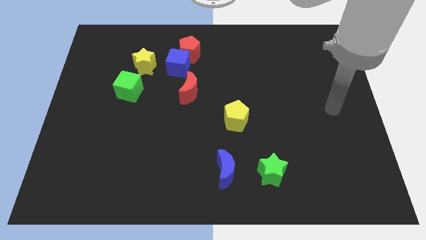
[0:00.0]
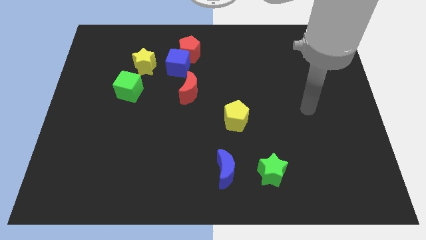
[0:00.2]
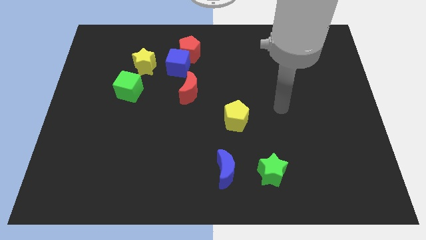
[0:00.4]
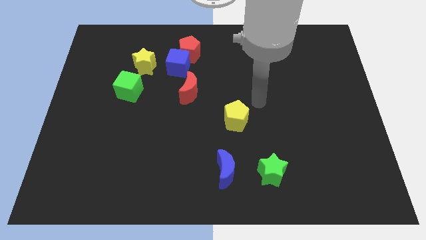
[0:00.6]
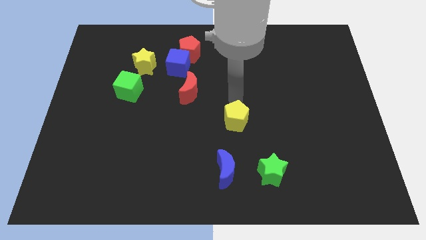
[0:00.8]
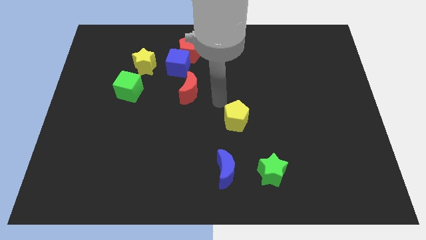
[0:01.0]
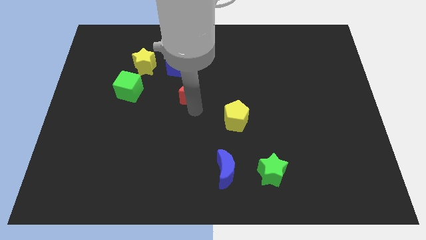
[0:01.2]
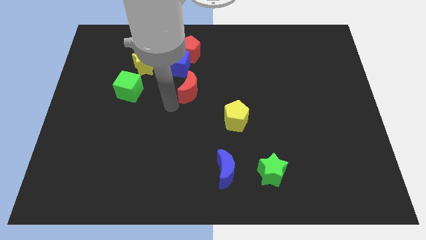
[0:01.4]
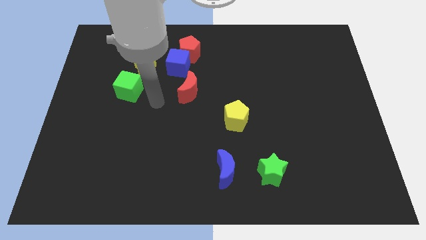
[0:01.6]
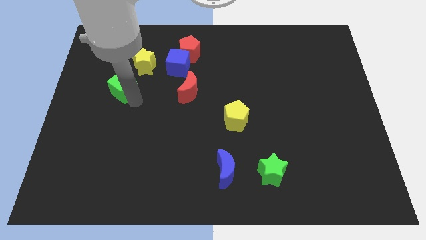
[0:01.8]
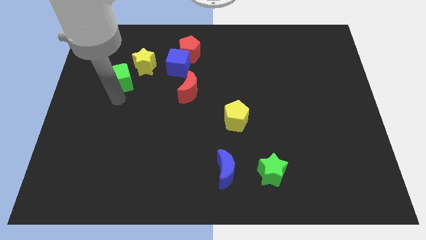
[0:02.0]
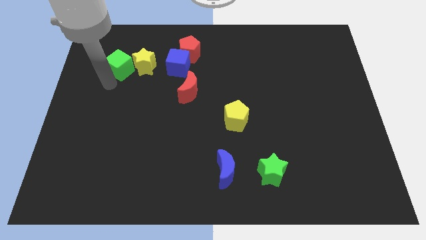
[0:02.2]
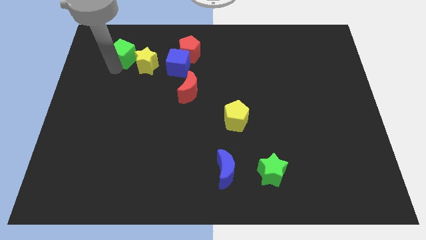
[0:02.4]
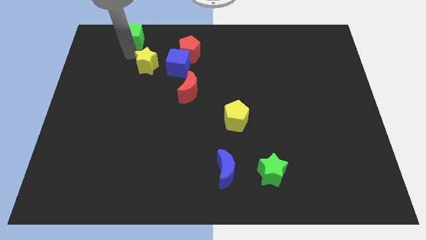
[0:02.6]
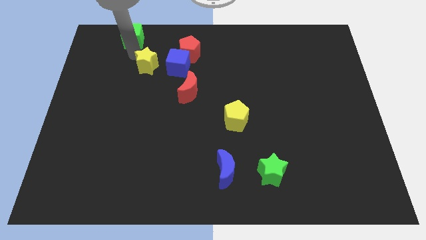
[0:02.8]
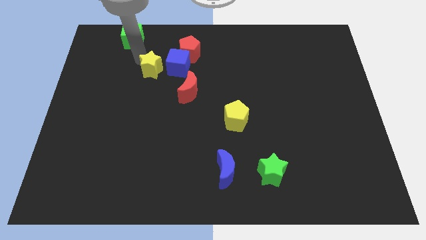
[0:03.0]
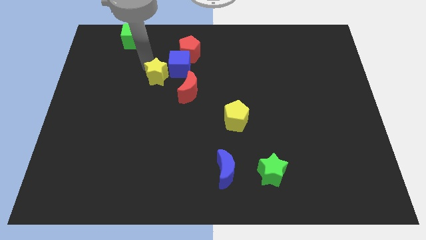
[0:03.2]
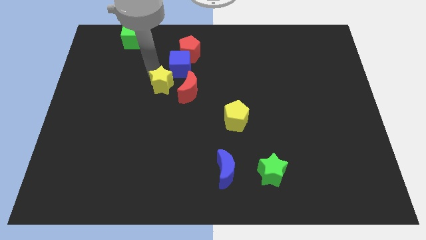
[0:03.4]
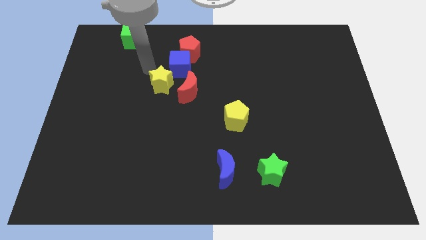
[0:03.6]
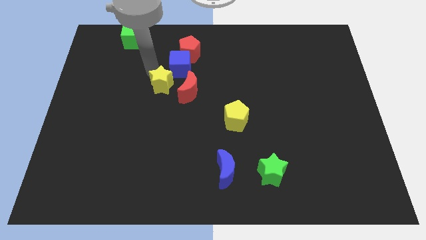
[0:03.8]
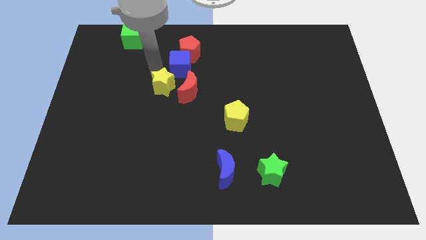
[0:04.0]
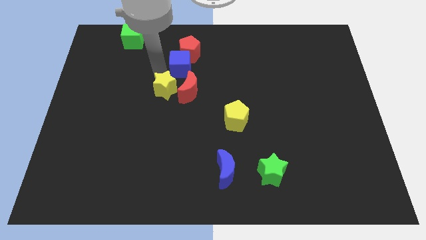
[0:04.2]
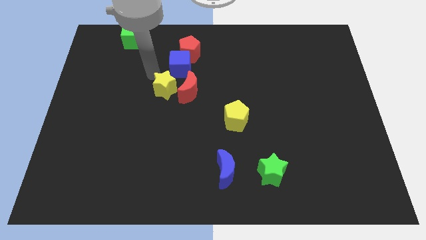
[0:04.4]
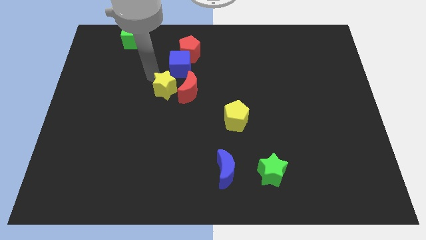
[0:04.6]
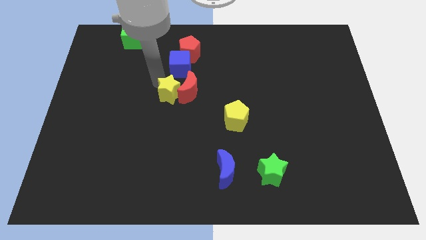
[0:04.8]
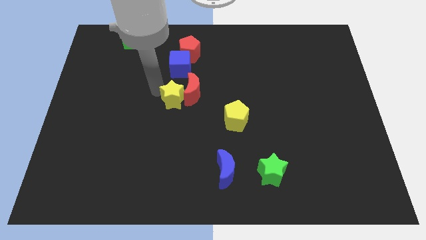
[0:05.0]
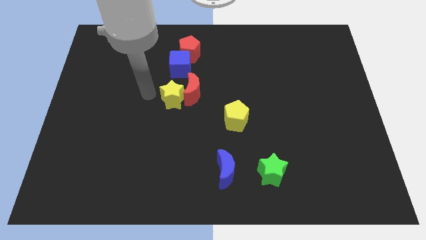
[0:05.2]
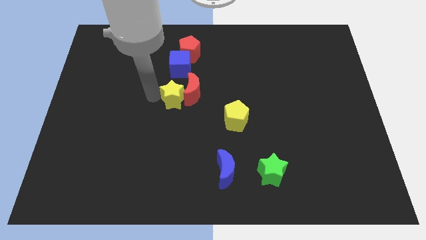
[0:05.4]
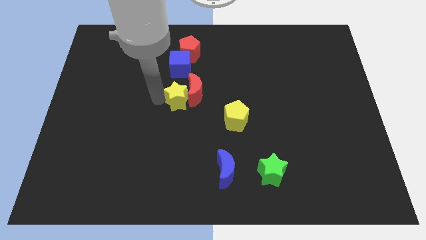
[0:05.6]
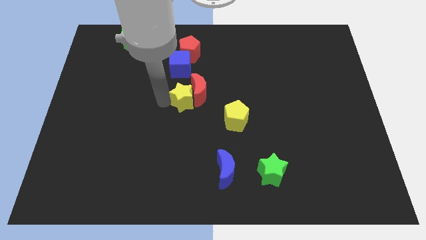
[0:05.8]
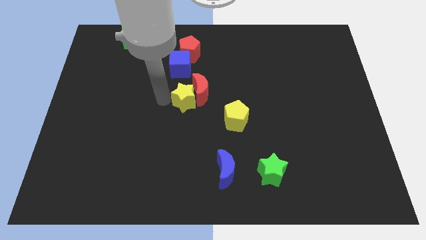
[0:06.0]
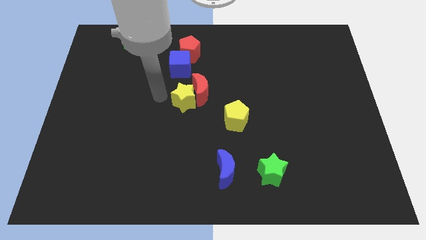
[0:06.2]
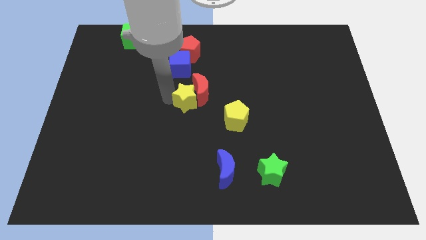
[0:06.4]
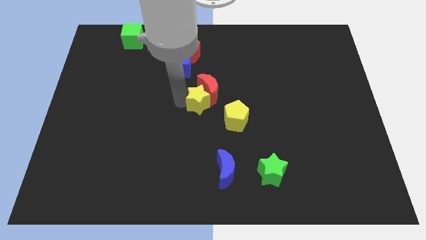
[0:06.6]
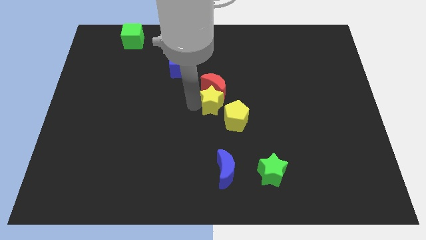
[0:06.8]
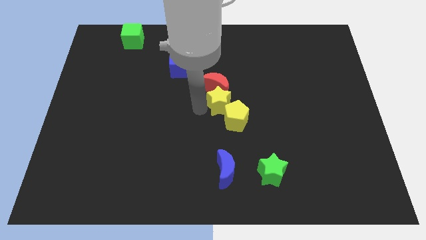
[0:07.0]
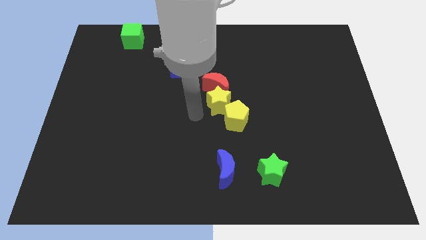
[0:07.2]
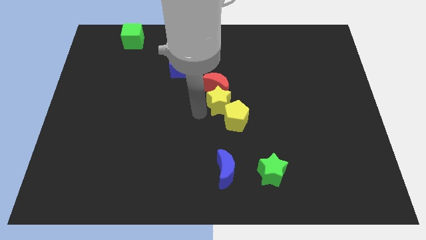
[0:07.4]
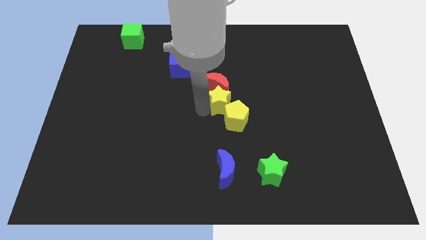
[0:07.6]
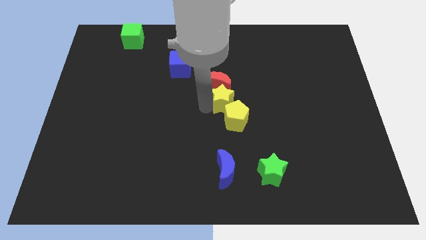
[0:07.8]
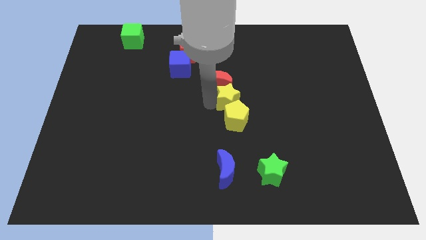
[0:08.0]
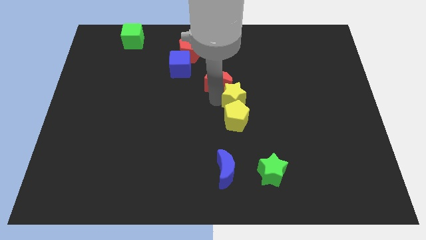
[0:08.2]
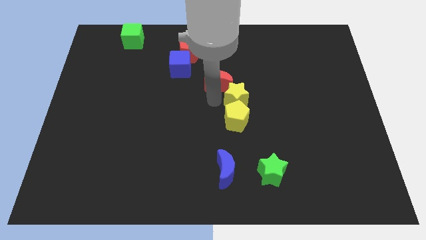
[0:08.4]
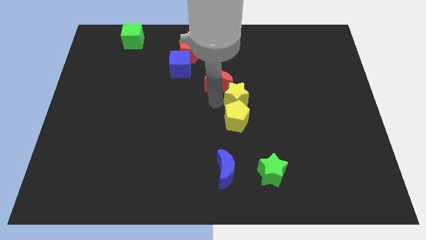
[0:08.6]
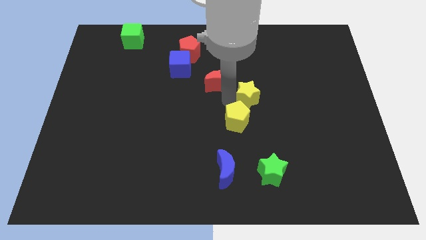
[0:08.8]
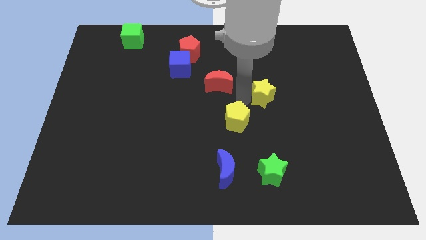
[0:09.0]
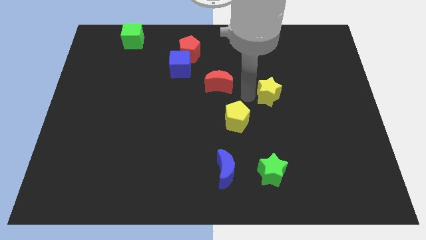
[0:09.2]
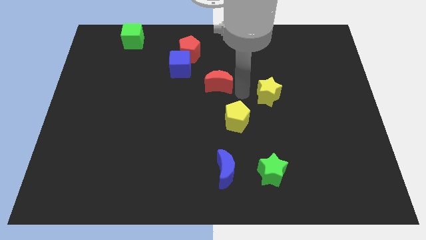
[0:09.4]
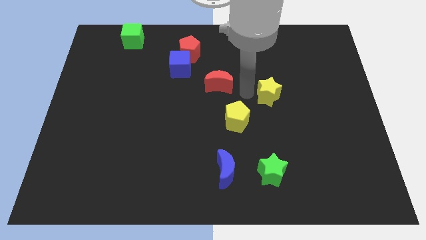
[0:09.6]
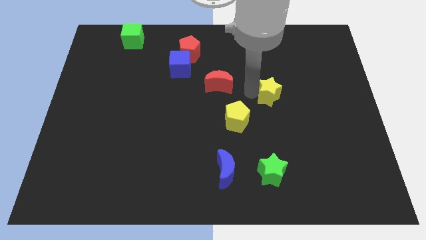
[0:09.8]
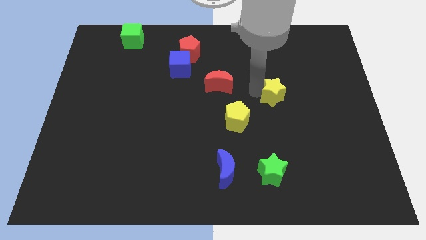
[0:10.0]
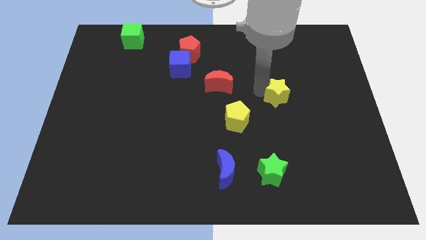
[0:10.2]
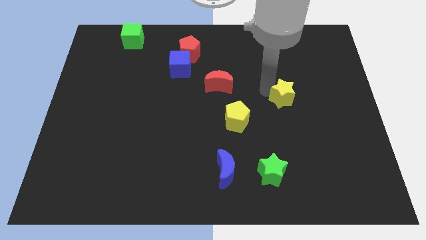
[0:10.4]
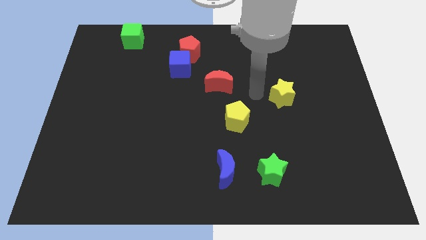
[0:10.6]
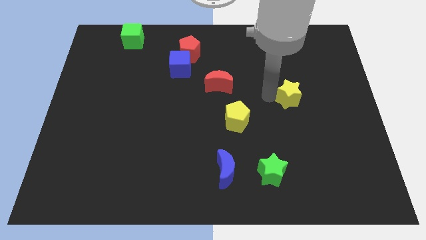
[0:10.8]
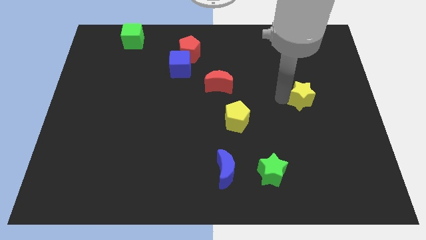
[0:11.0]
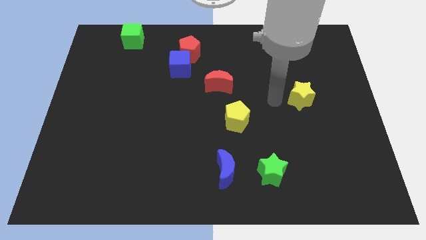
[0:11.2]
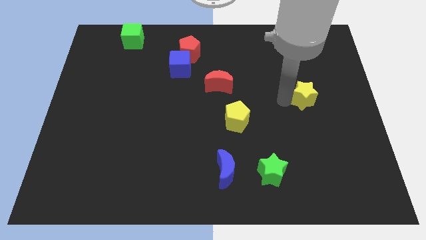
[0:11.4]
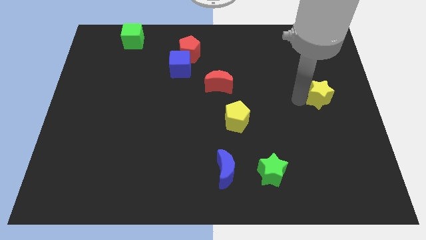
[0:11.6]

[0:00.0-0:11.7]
move the yellow star to the right side of the board
